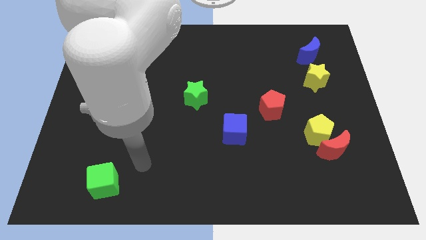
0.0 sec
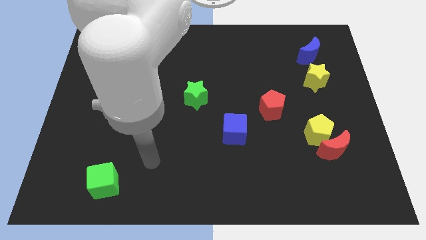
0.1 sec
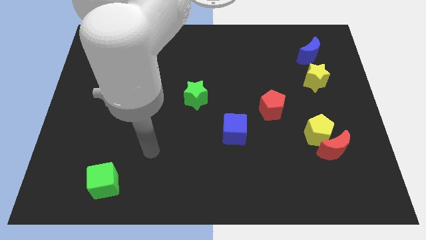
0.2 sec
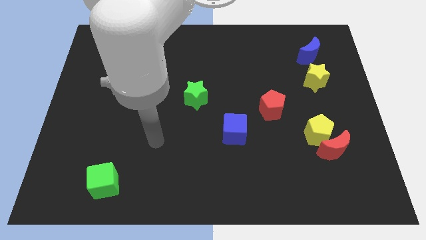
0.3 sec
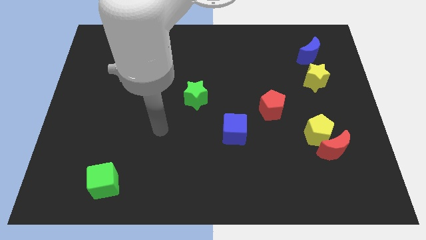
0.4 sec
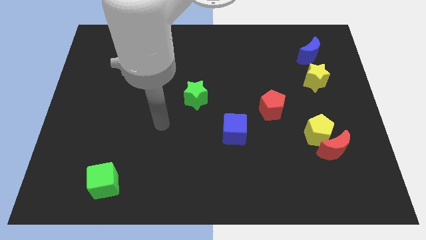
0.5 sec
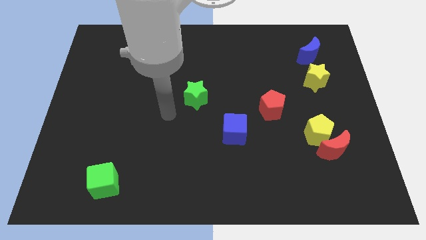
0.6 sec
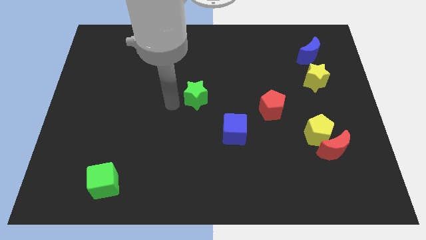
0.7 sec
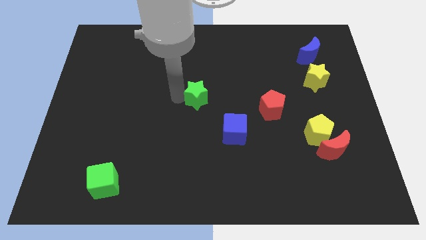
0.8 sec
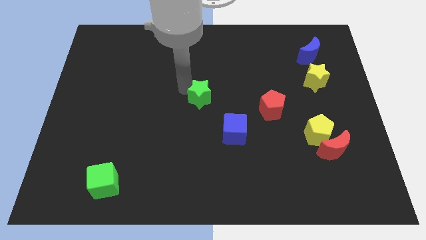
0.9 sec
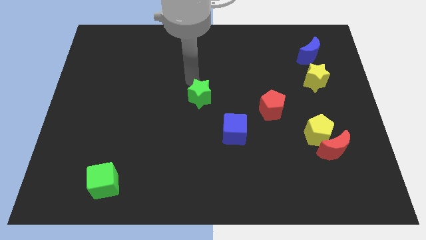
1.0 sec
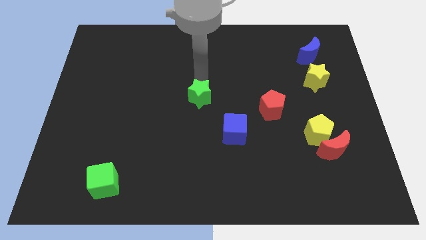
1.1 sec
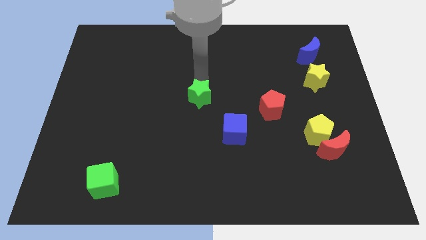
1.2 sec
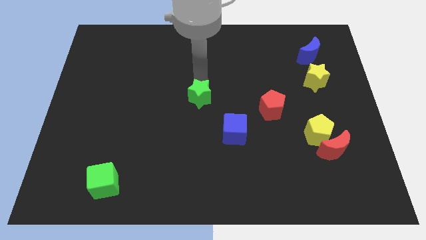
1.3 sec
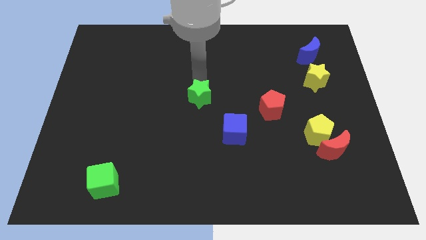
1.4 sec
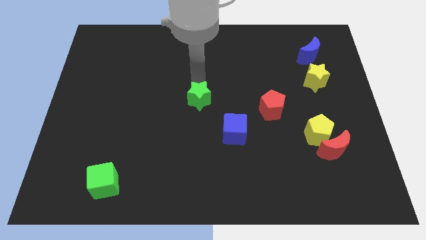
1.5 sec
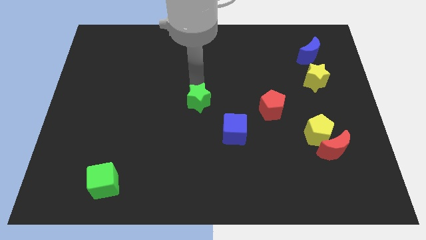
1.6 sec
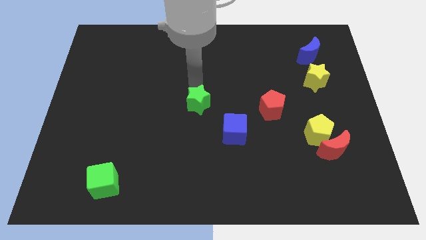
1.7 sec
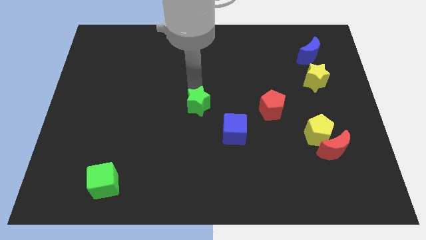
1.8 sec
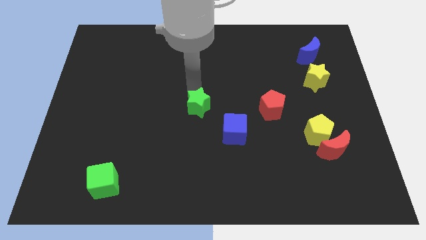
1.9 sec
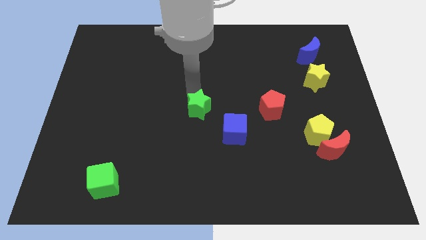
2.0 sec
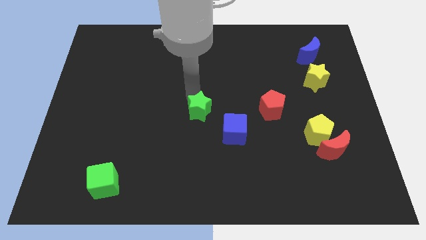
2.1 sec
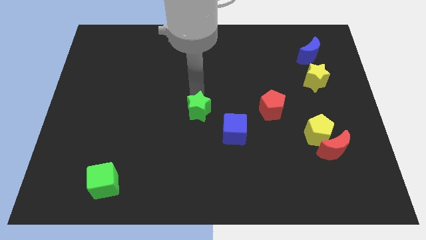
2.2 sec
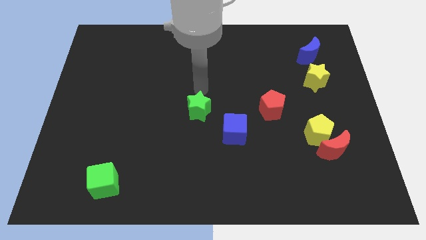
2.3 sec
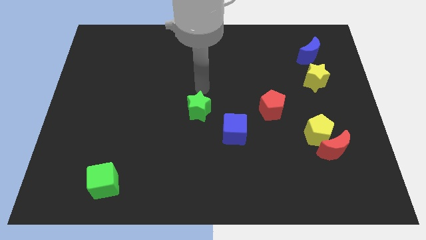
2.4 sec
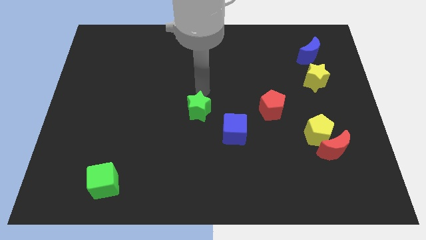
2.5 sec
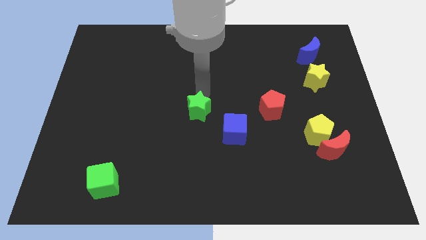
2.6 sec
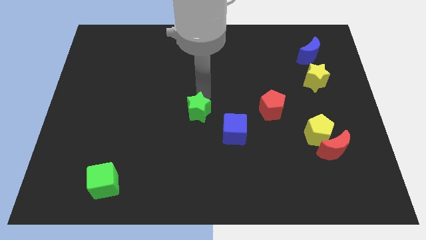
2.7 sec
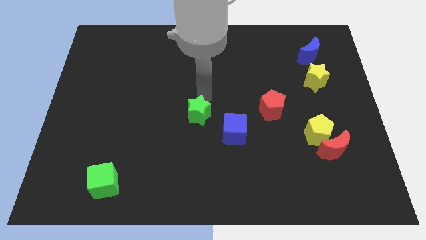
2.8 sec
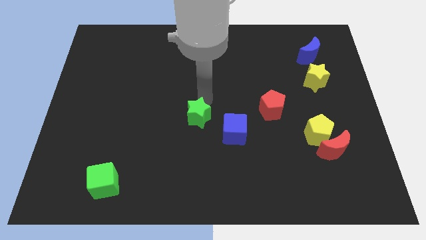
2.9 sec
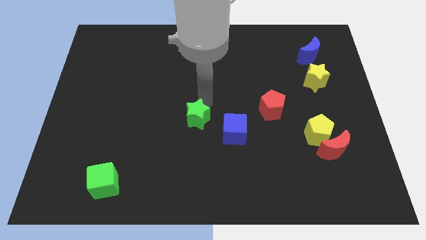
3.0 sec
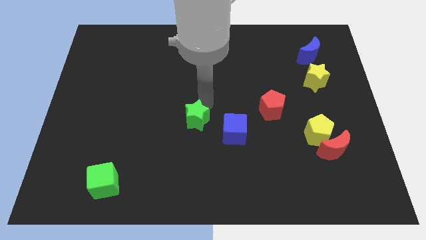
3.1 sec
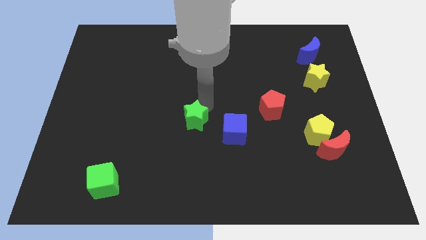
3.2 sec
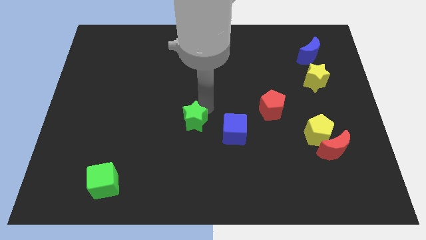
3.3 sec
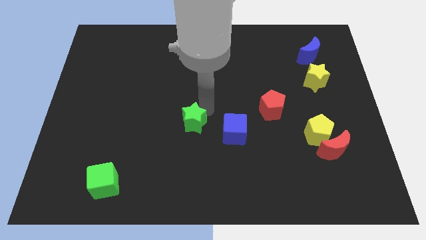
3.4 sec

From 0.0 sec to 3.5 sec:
move the green star down slightly

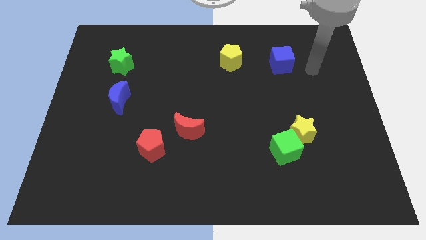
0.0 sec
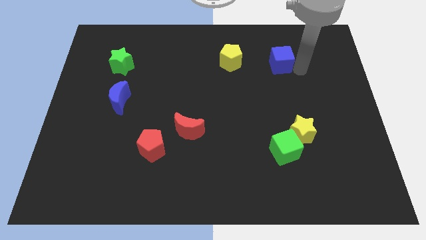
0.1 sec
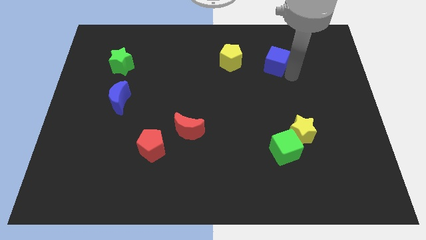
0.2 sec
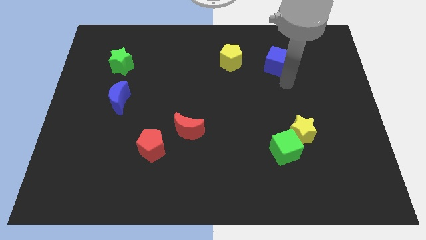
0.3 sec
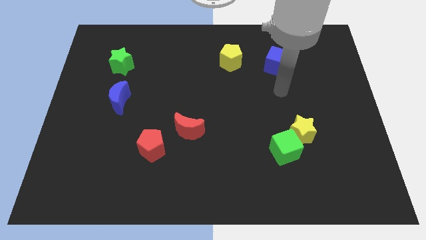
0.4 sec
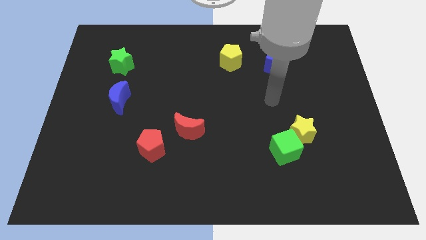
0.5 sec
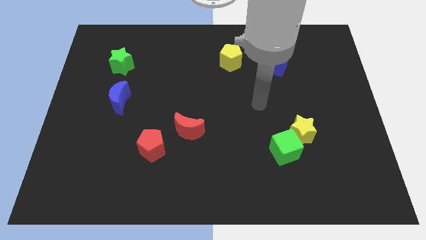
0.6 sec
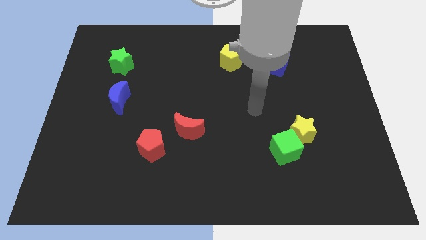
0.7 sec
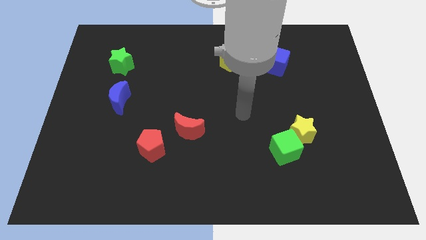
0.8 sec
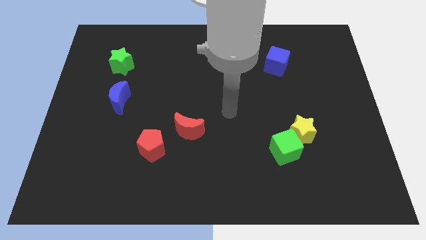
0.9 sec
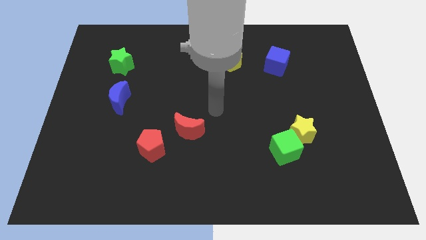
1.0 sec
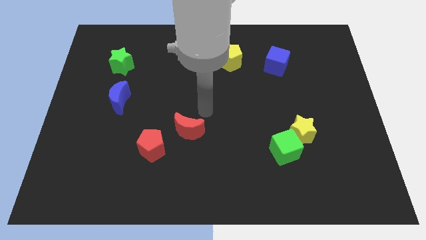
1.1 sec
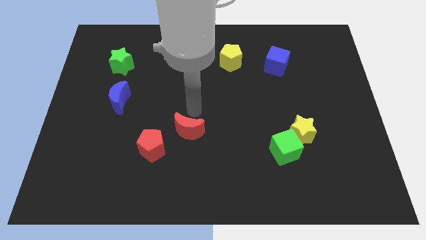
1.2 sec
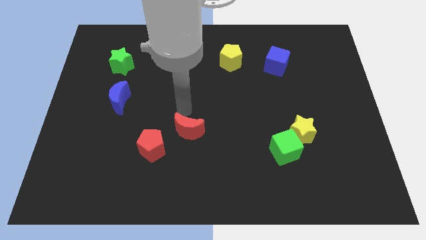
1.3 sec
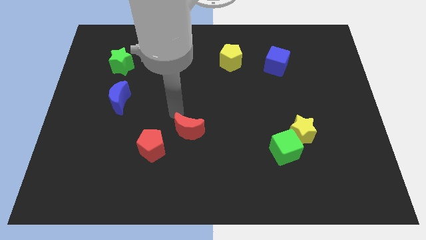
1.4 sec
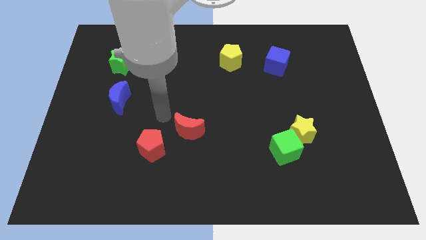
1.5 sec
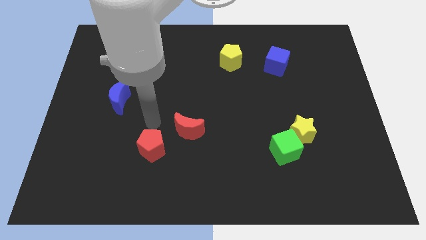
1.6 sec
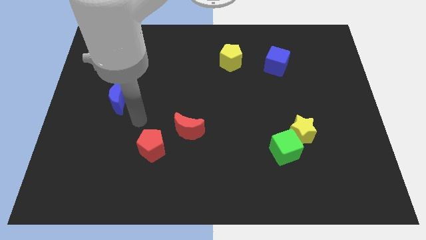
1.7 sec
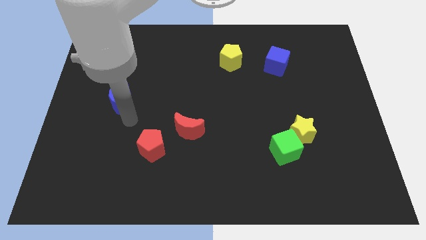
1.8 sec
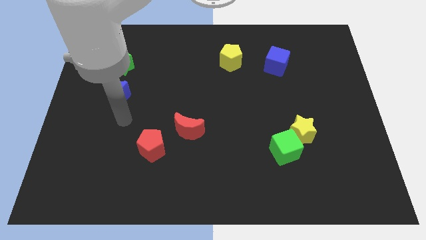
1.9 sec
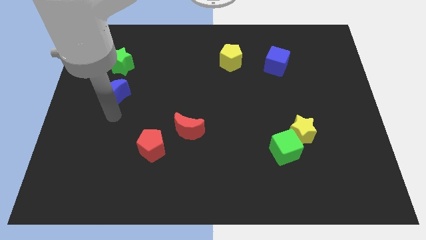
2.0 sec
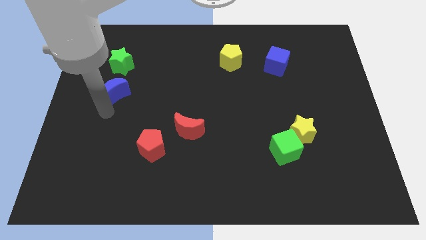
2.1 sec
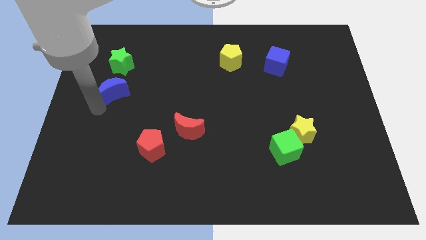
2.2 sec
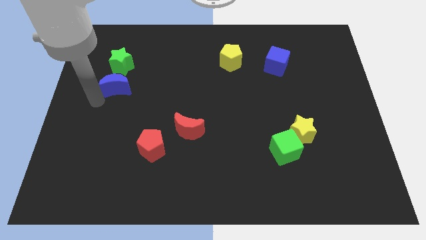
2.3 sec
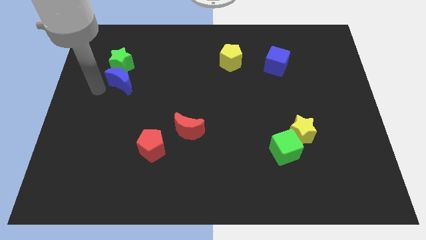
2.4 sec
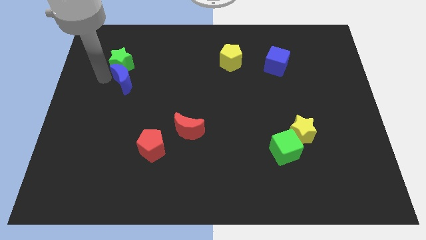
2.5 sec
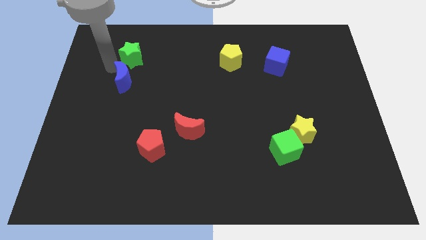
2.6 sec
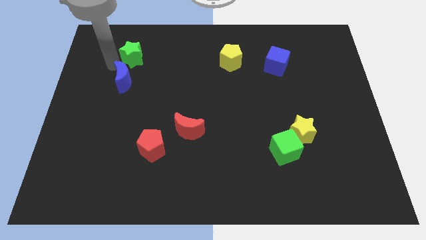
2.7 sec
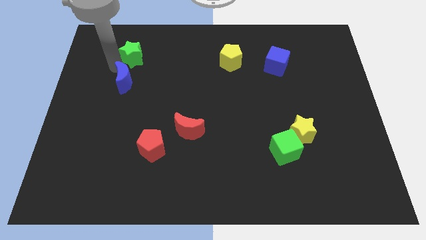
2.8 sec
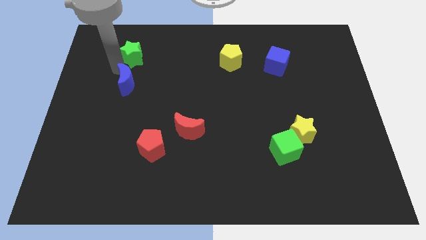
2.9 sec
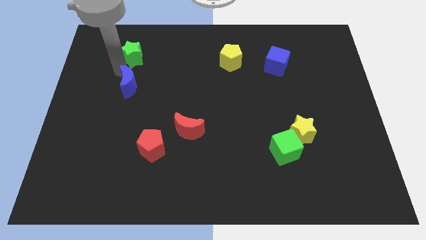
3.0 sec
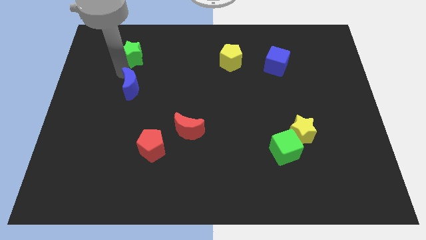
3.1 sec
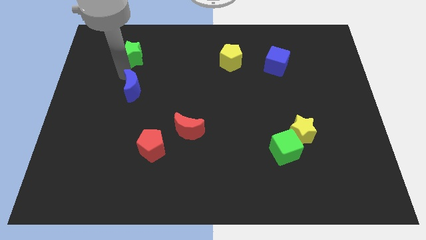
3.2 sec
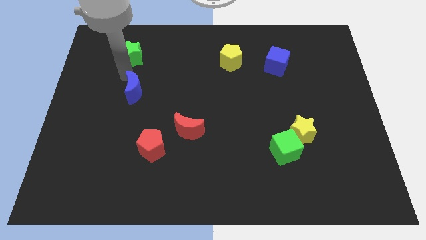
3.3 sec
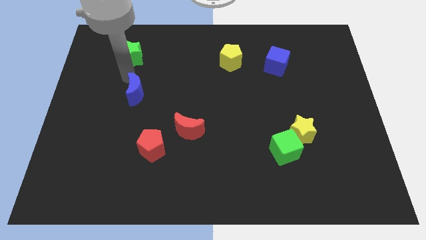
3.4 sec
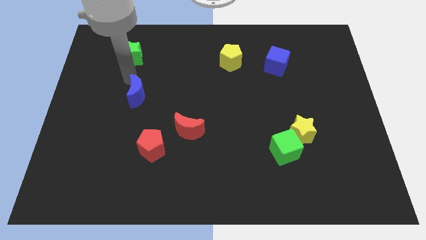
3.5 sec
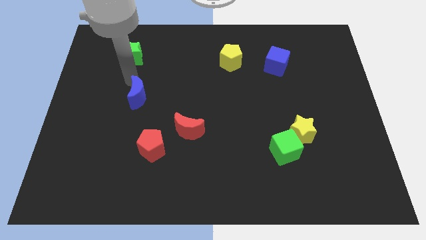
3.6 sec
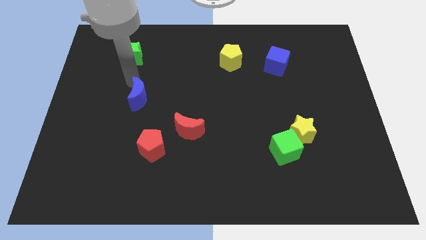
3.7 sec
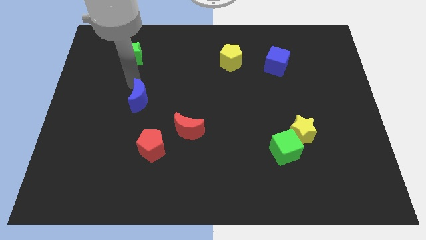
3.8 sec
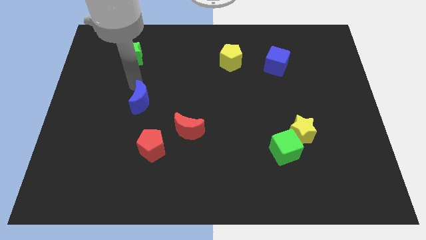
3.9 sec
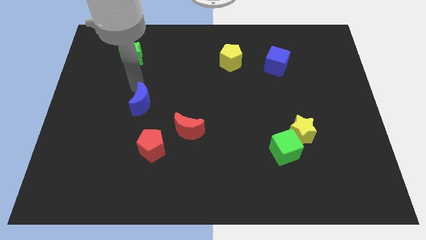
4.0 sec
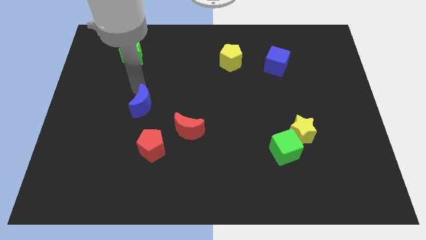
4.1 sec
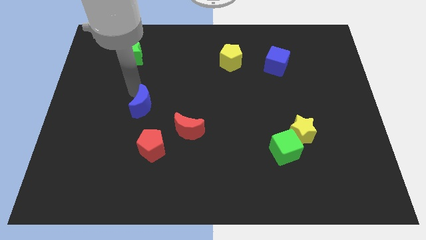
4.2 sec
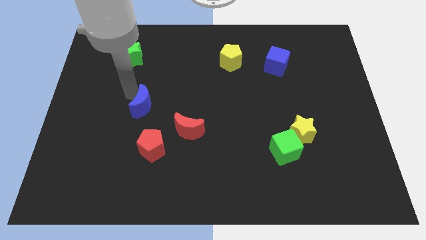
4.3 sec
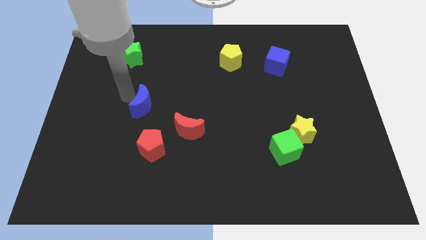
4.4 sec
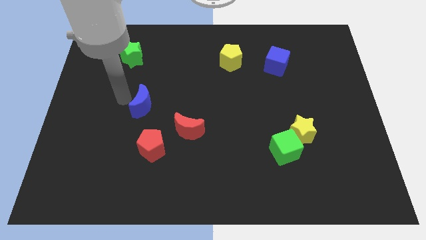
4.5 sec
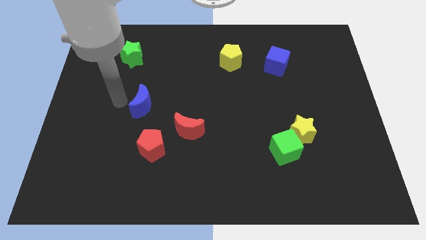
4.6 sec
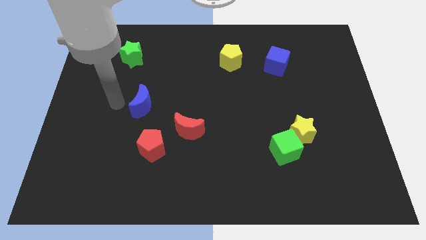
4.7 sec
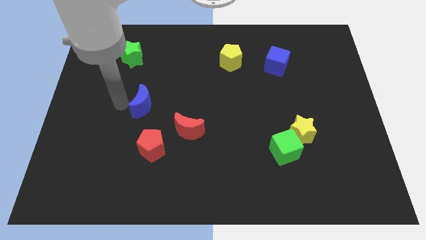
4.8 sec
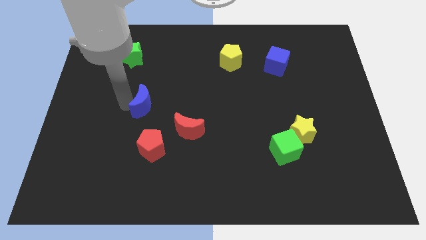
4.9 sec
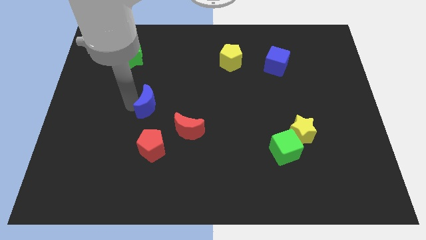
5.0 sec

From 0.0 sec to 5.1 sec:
push the blue moon a bit to the right
